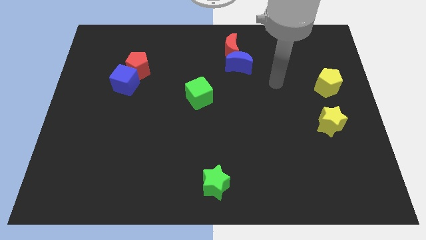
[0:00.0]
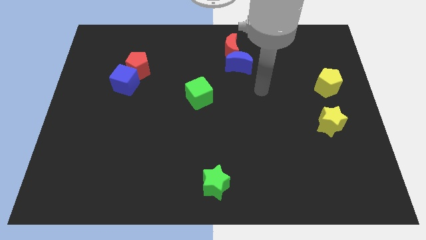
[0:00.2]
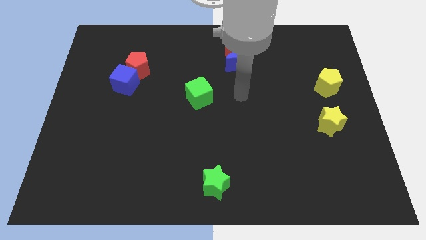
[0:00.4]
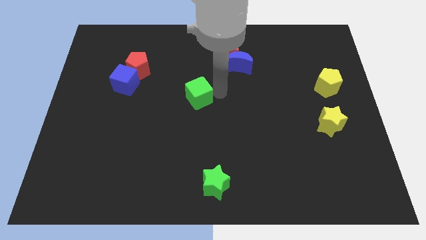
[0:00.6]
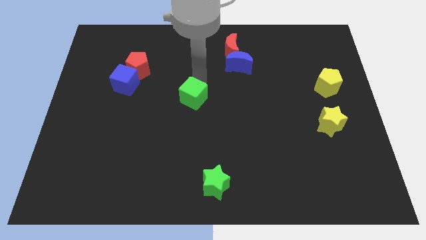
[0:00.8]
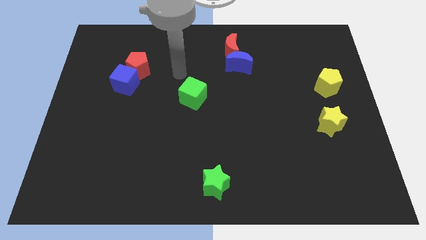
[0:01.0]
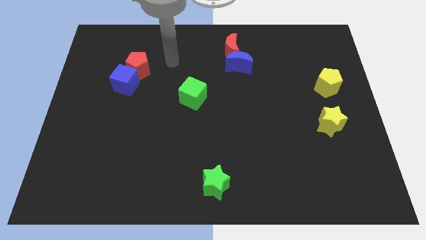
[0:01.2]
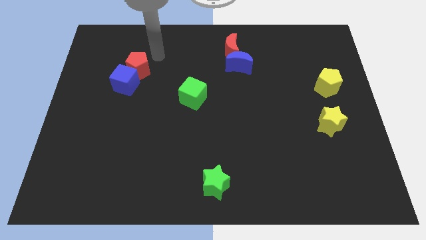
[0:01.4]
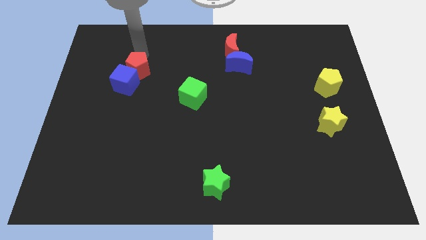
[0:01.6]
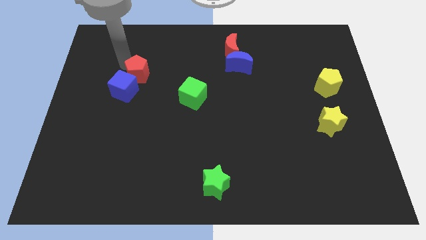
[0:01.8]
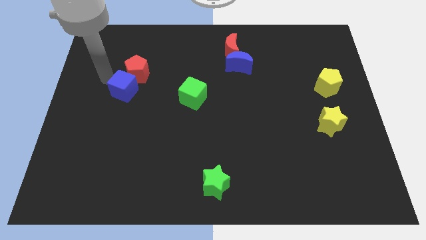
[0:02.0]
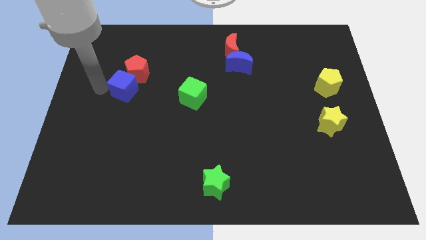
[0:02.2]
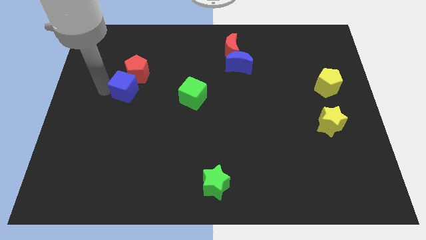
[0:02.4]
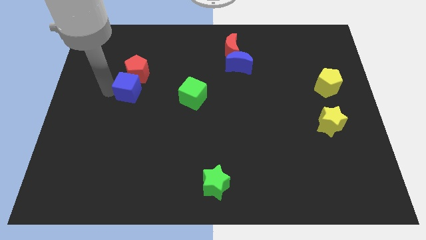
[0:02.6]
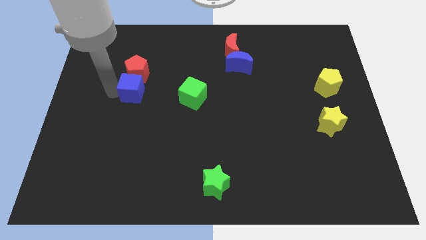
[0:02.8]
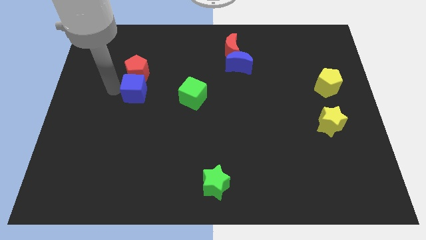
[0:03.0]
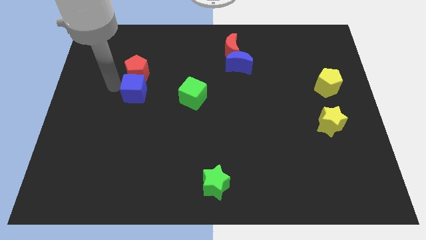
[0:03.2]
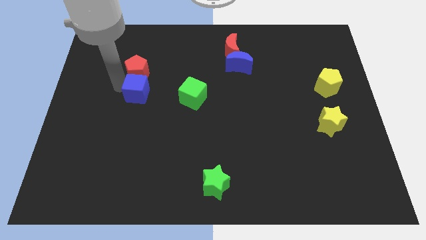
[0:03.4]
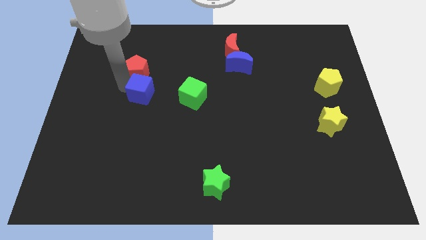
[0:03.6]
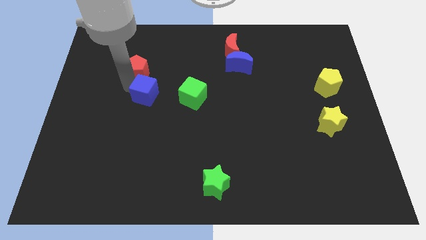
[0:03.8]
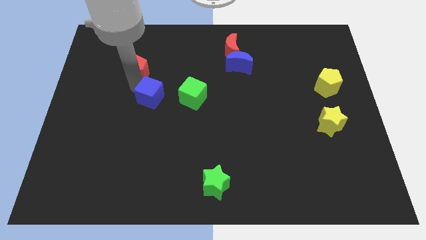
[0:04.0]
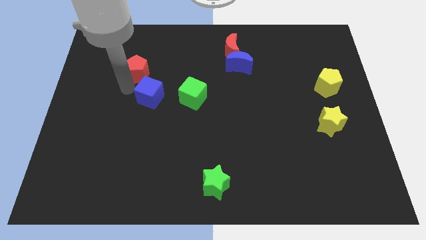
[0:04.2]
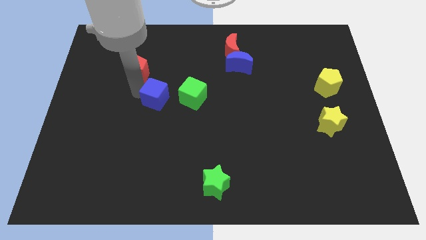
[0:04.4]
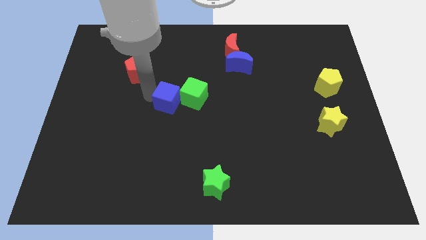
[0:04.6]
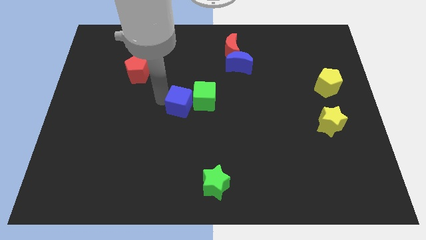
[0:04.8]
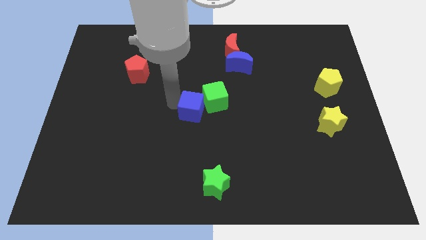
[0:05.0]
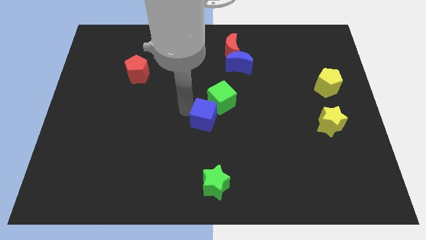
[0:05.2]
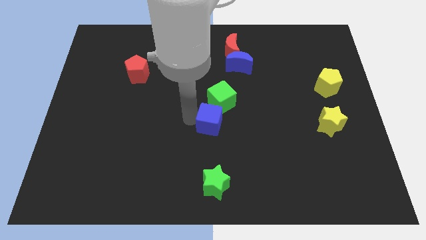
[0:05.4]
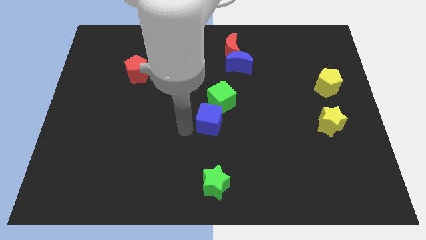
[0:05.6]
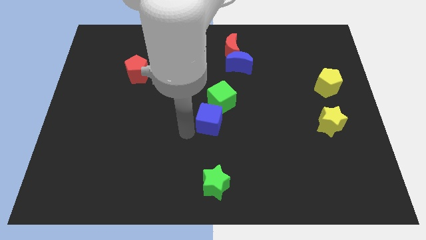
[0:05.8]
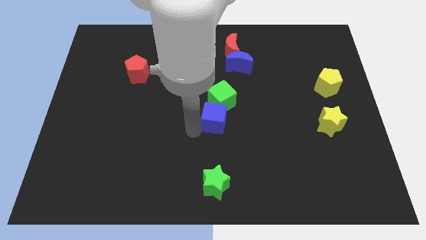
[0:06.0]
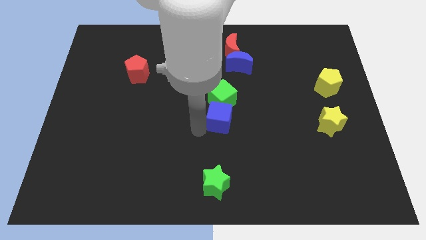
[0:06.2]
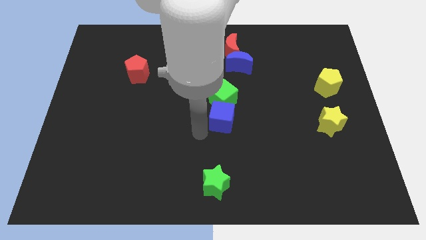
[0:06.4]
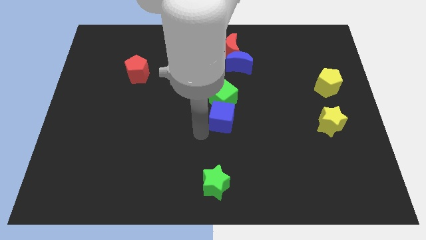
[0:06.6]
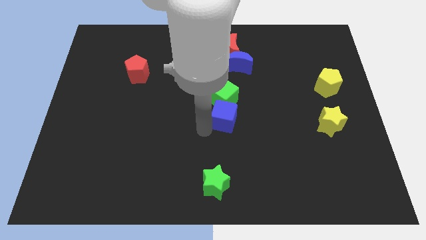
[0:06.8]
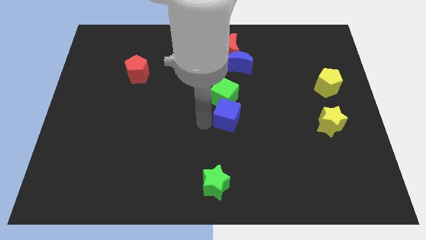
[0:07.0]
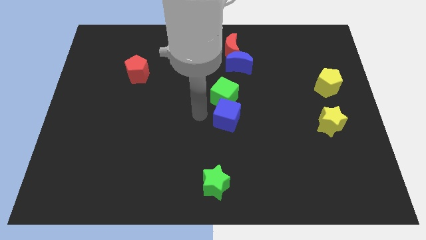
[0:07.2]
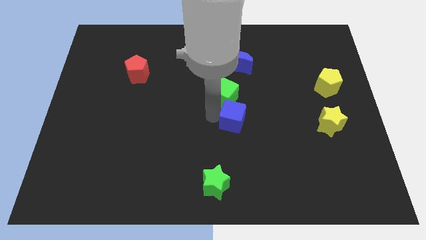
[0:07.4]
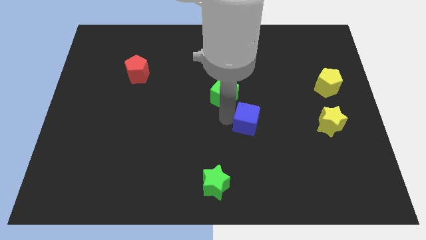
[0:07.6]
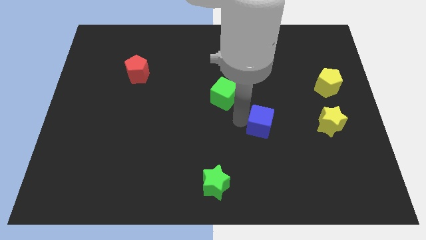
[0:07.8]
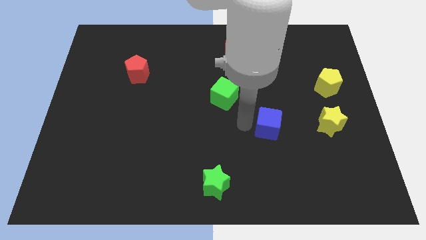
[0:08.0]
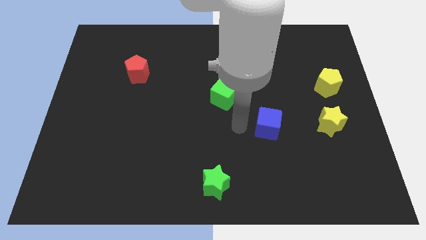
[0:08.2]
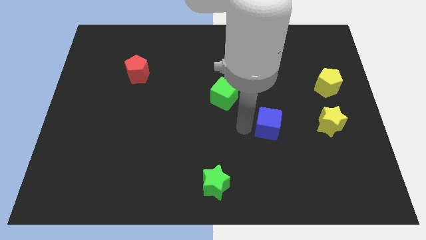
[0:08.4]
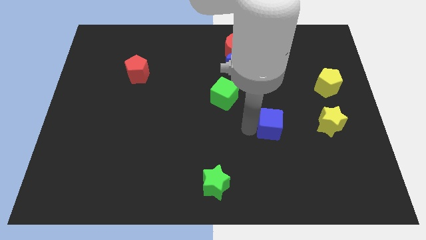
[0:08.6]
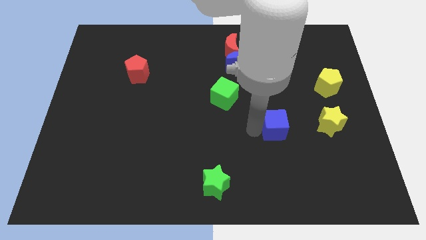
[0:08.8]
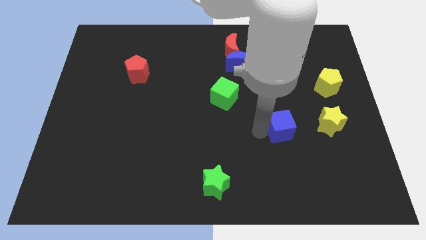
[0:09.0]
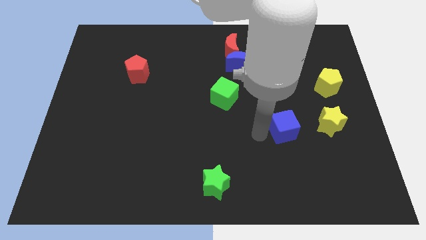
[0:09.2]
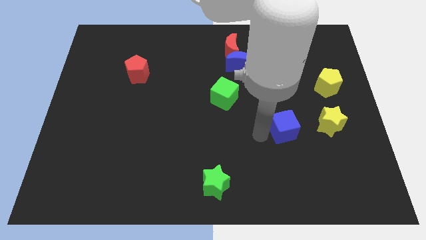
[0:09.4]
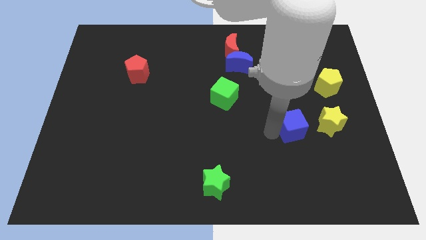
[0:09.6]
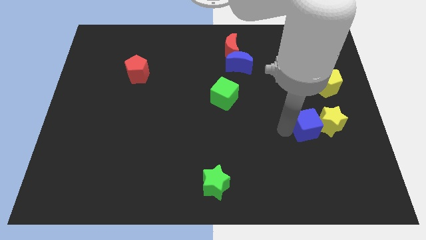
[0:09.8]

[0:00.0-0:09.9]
slide the blue cube next to the yellow star

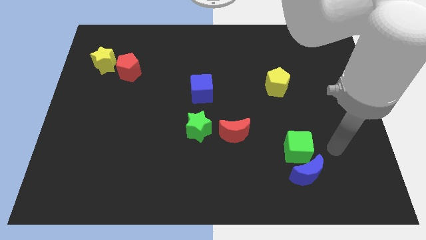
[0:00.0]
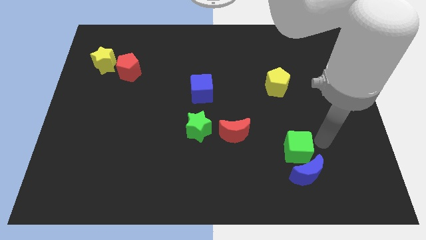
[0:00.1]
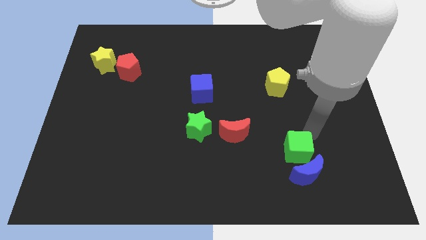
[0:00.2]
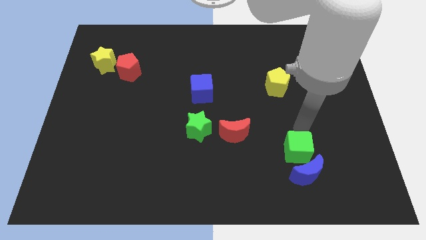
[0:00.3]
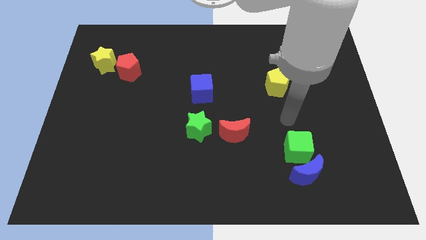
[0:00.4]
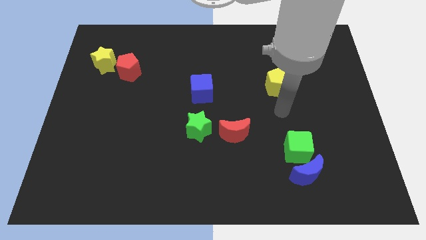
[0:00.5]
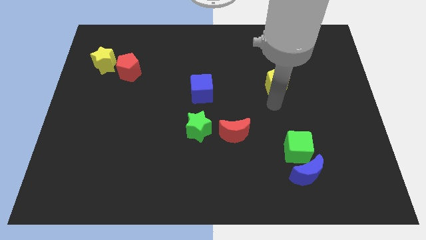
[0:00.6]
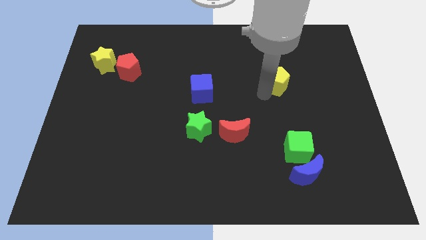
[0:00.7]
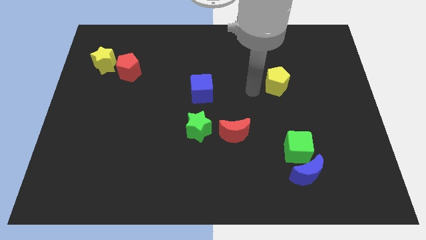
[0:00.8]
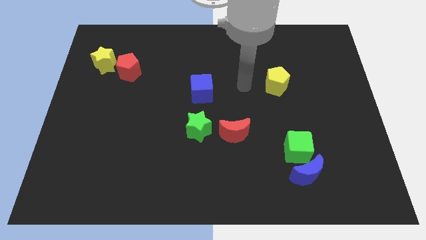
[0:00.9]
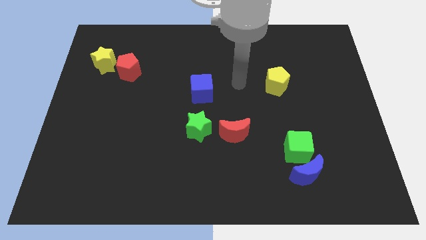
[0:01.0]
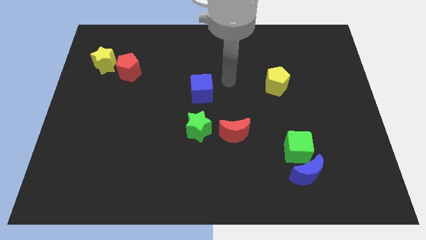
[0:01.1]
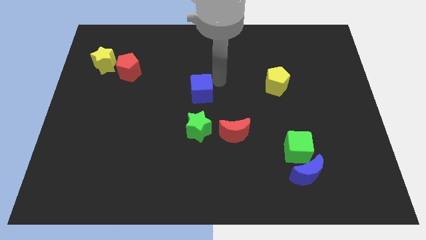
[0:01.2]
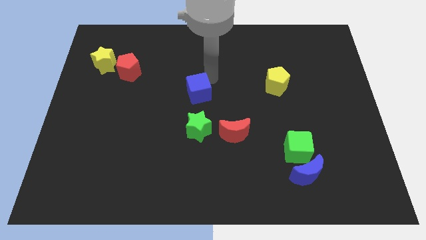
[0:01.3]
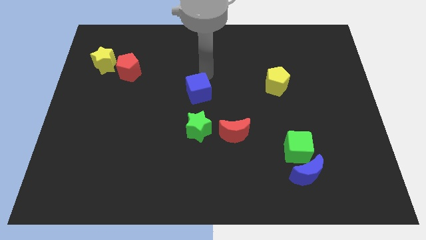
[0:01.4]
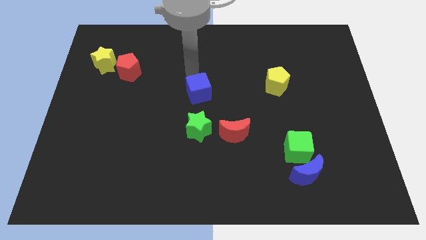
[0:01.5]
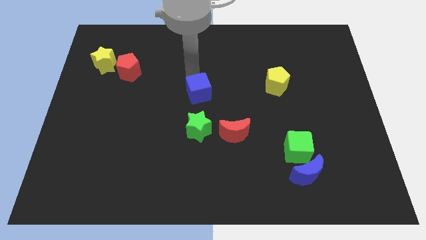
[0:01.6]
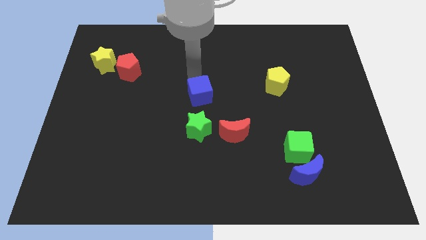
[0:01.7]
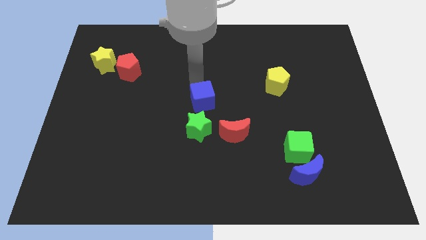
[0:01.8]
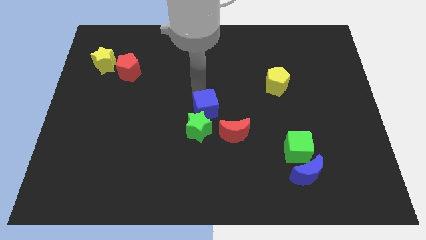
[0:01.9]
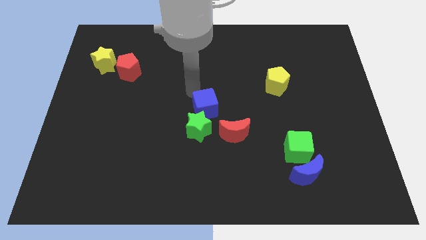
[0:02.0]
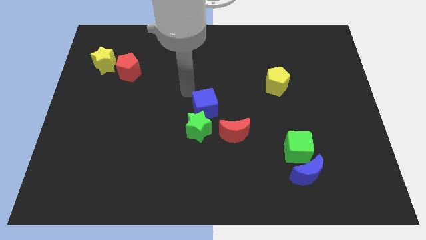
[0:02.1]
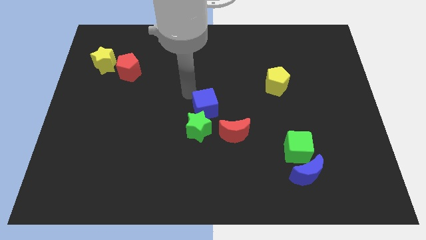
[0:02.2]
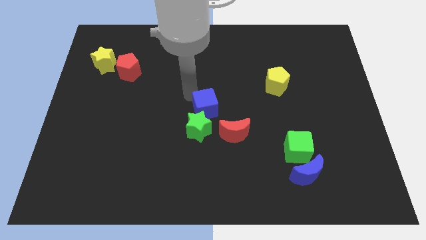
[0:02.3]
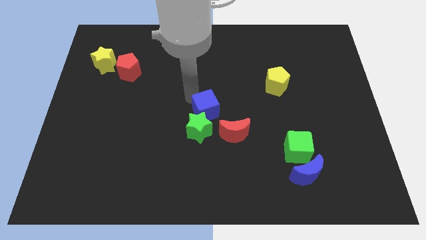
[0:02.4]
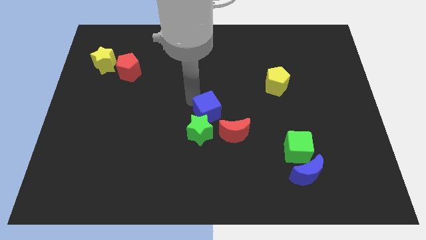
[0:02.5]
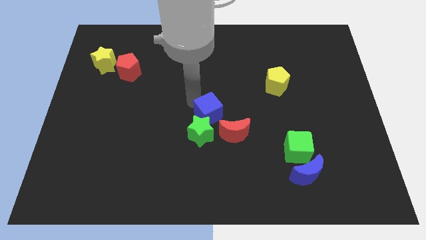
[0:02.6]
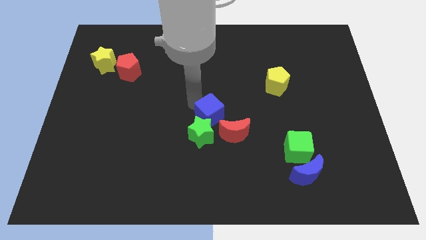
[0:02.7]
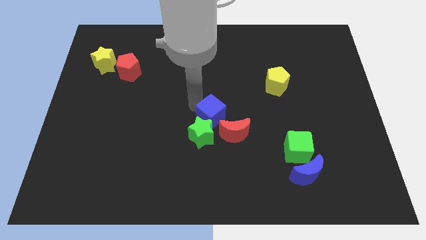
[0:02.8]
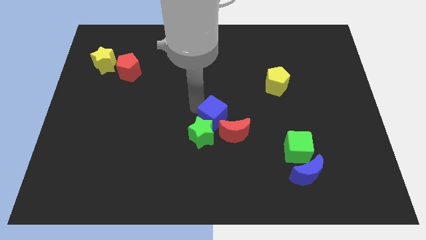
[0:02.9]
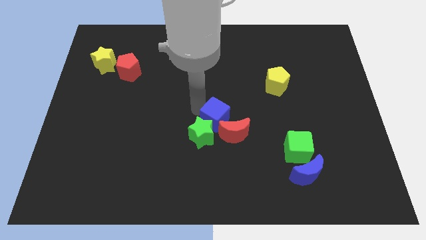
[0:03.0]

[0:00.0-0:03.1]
move the blue cube next to the red moon
